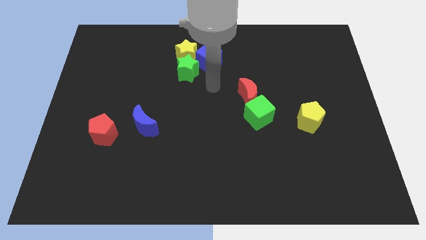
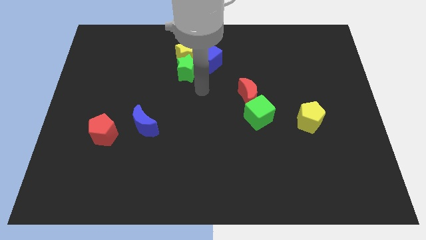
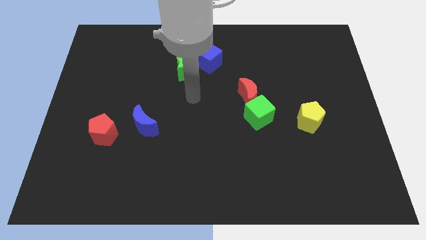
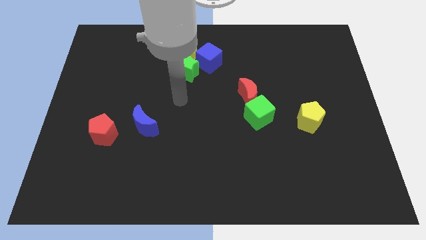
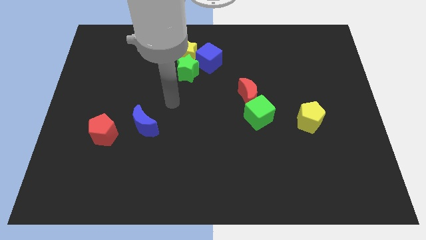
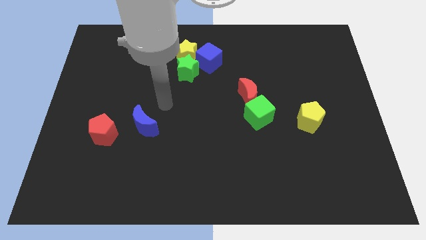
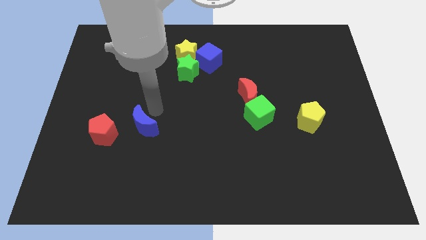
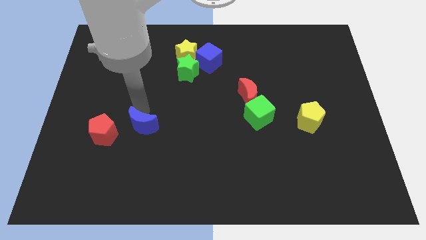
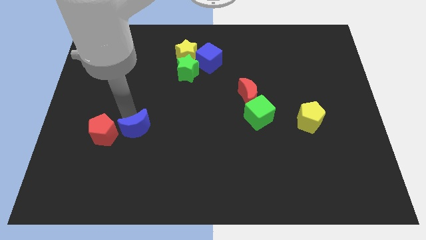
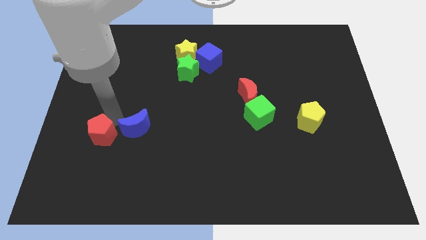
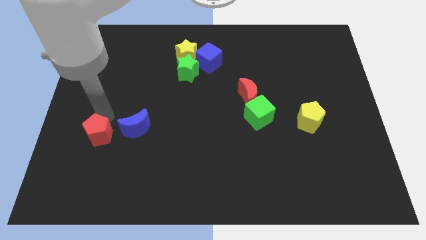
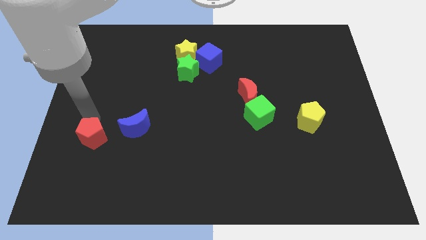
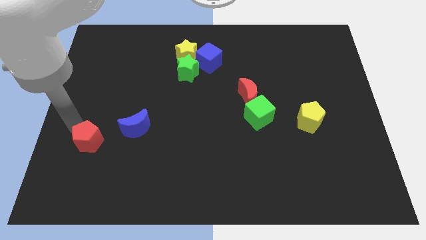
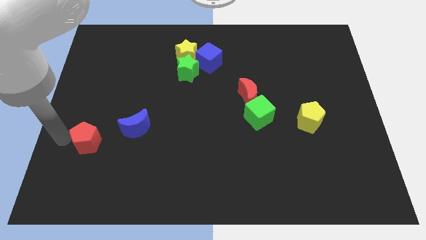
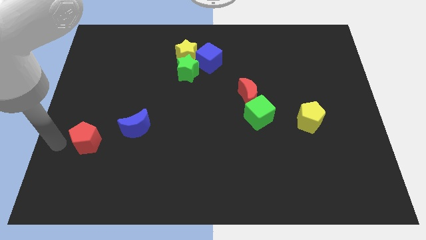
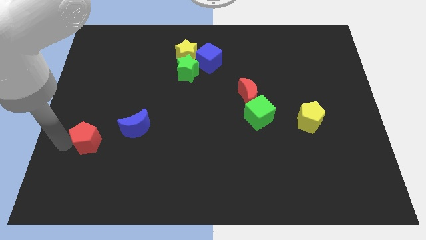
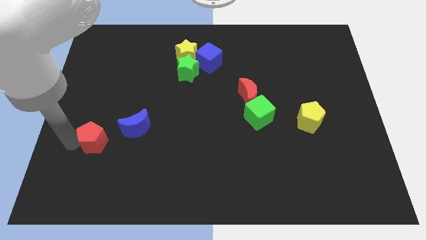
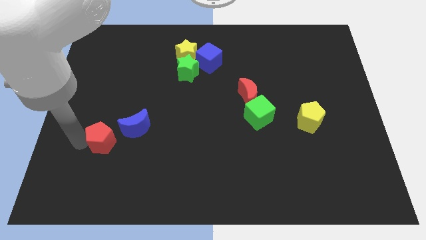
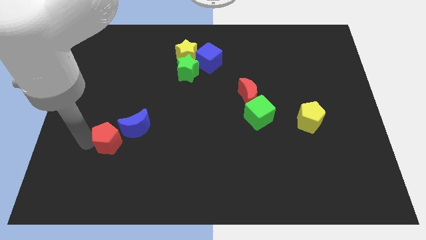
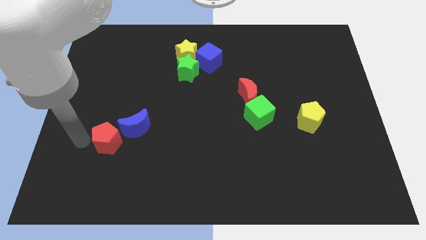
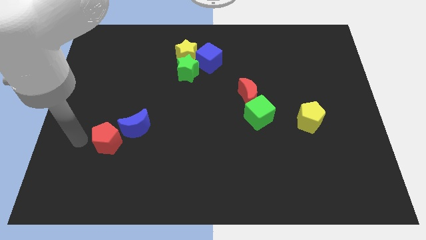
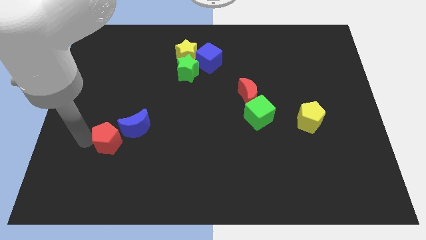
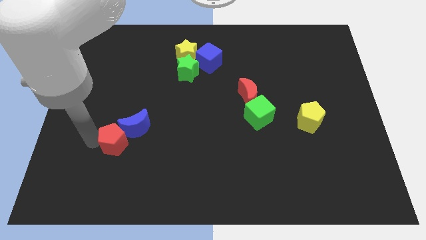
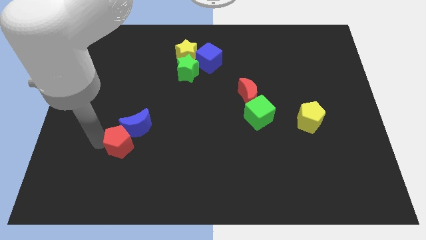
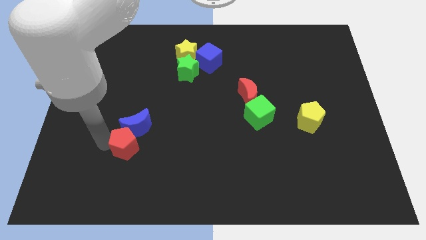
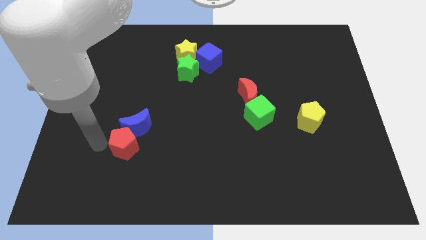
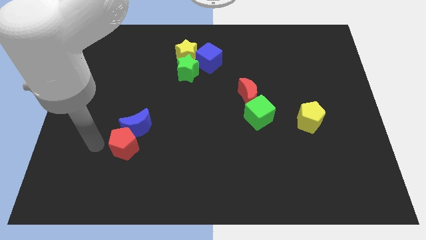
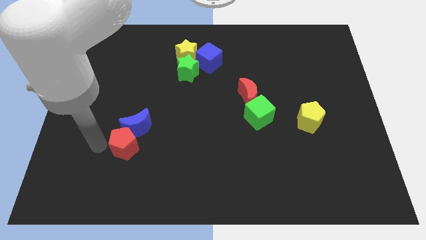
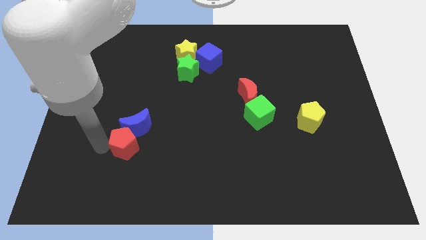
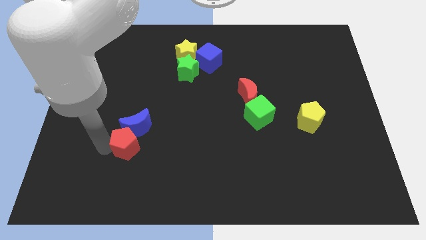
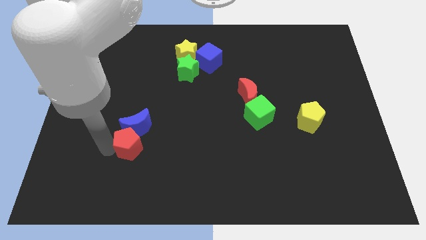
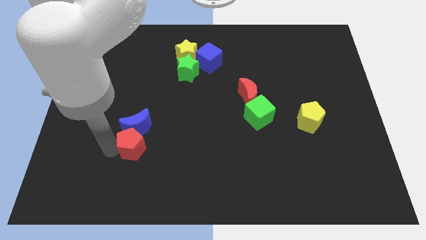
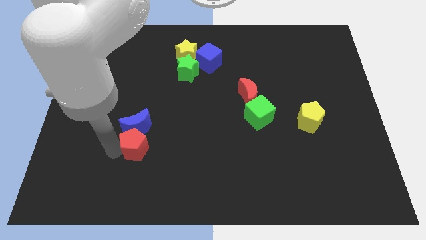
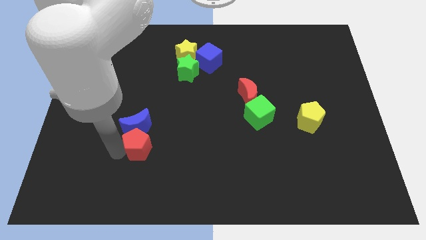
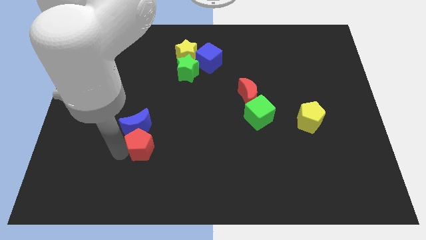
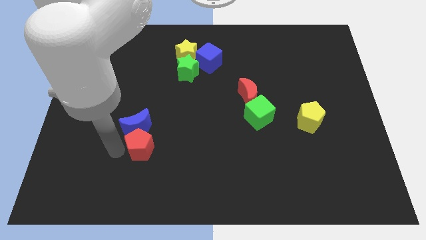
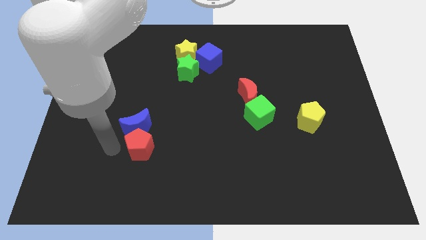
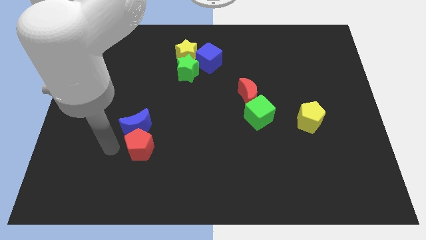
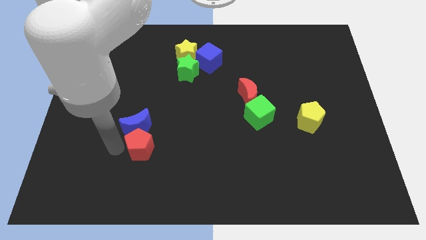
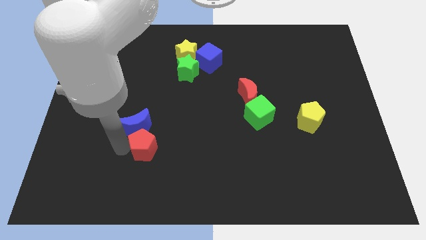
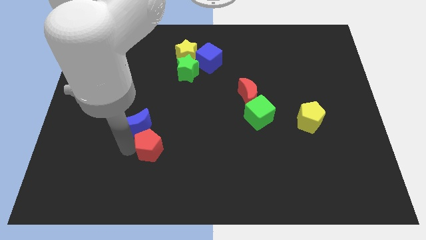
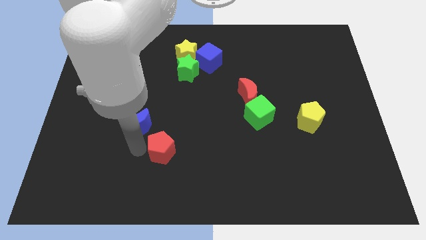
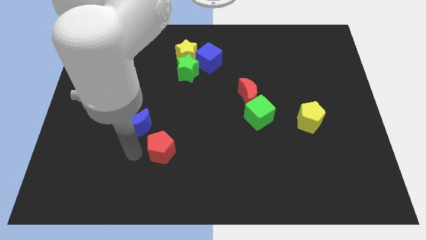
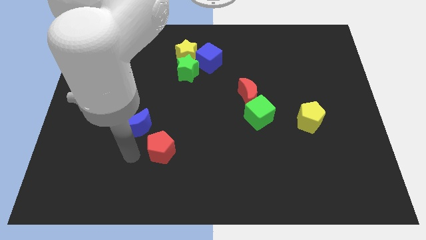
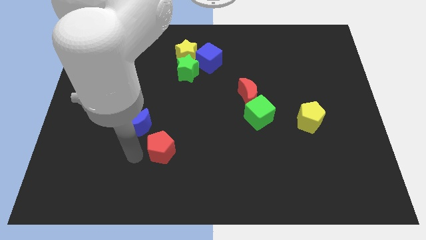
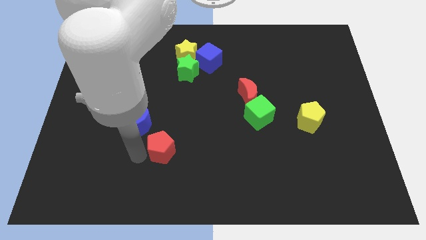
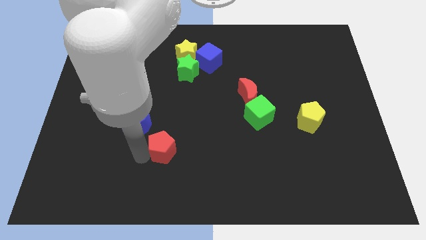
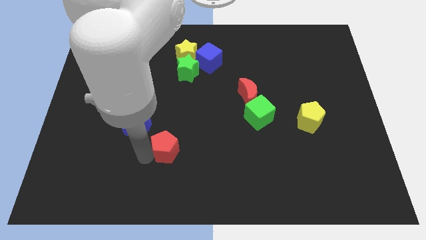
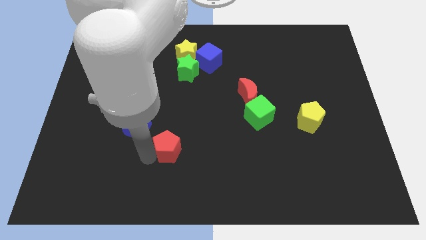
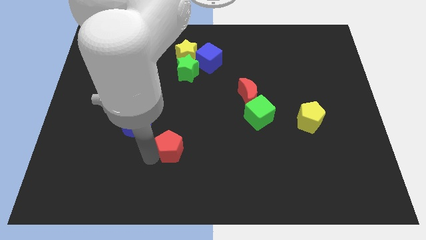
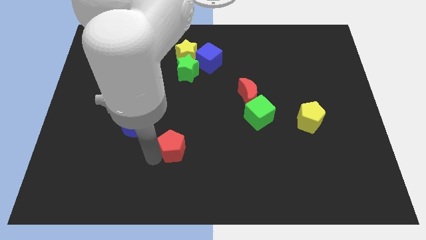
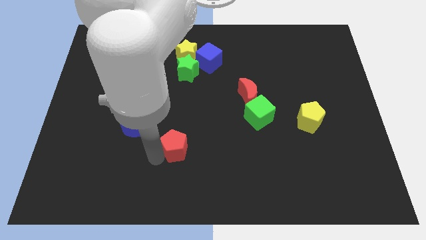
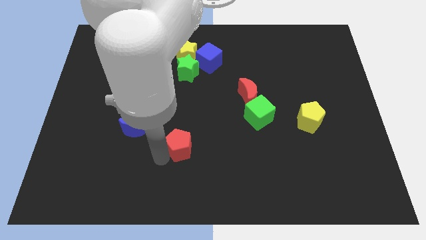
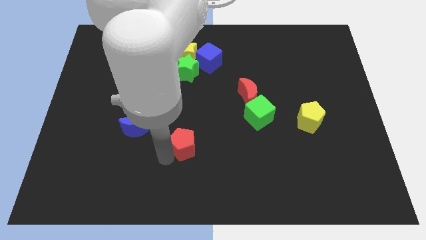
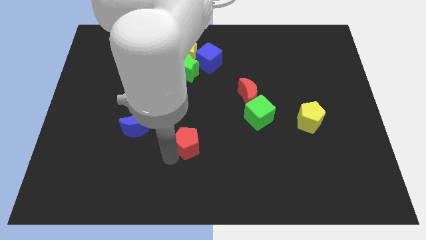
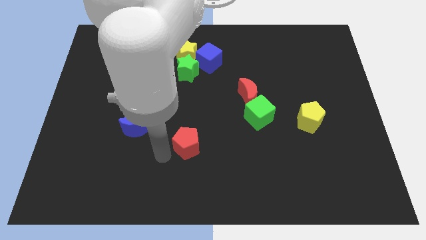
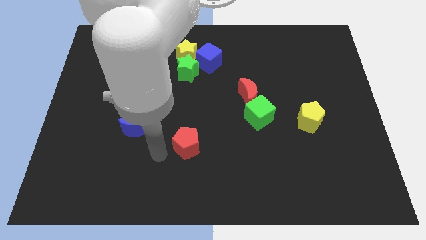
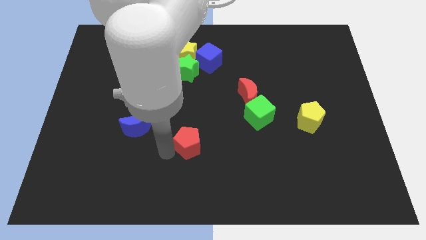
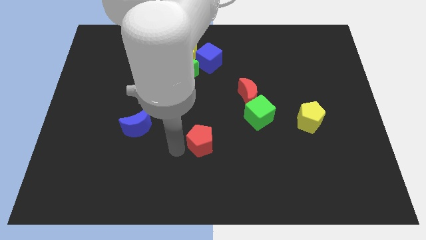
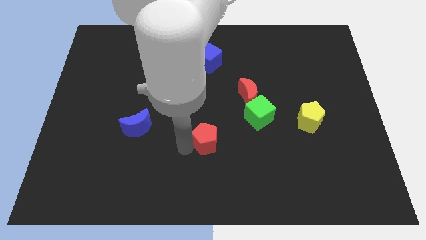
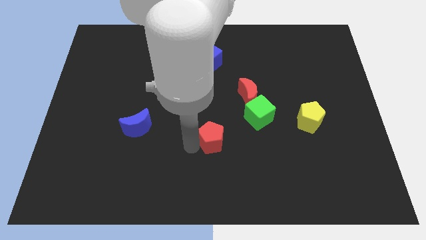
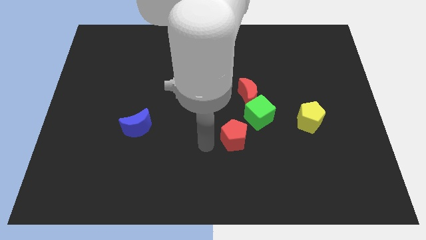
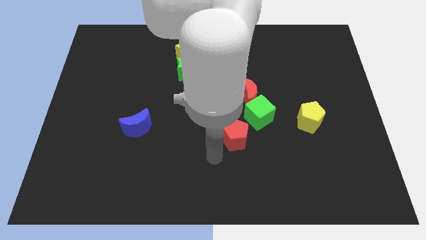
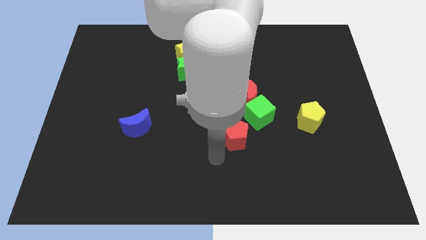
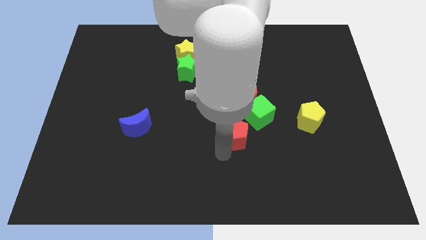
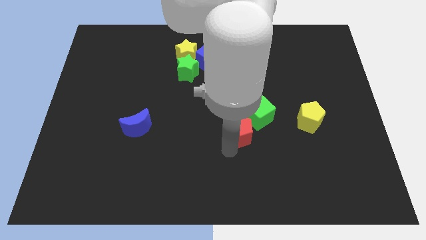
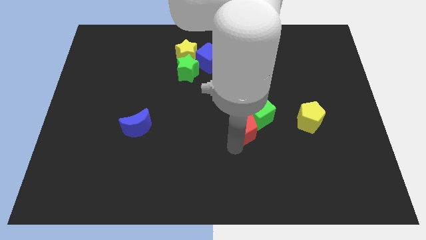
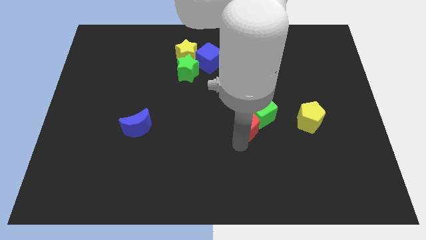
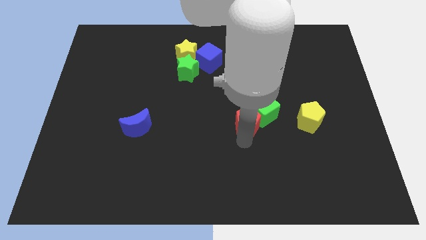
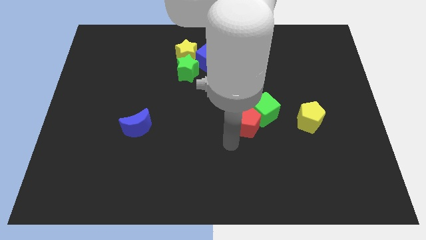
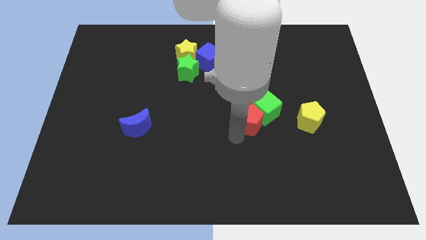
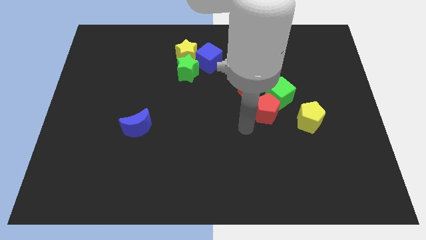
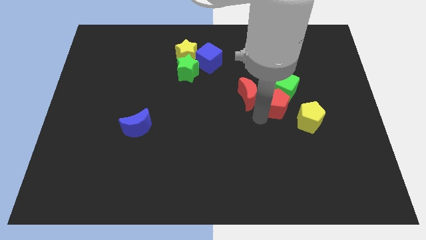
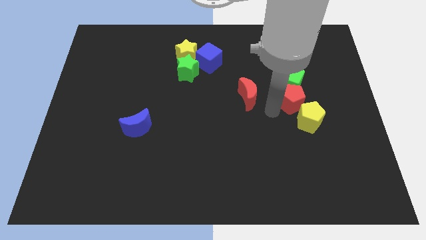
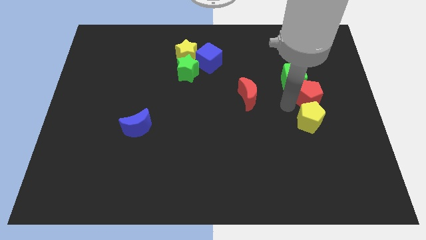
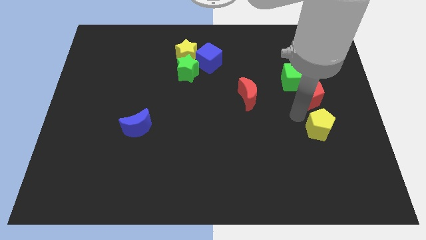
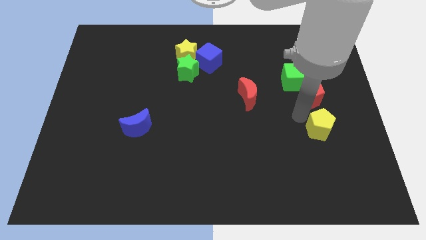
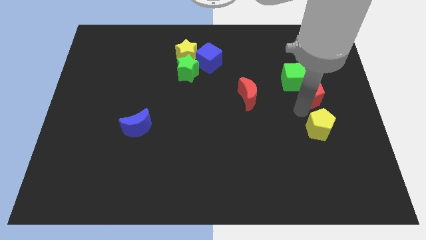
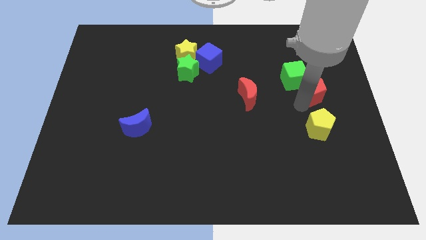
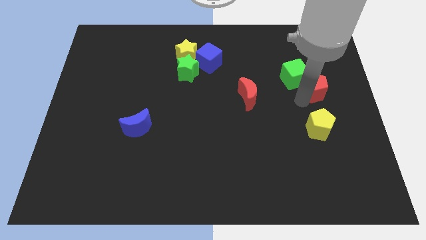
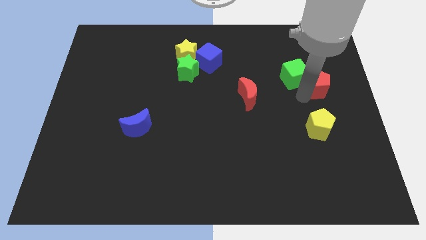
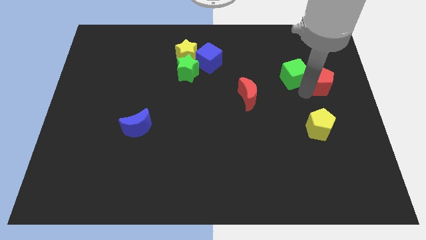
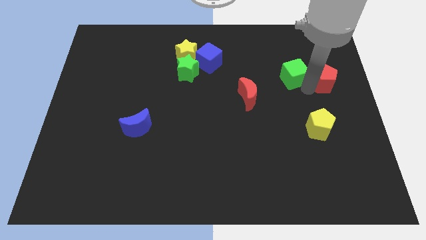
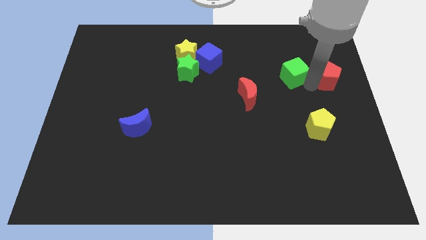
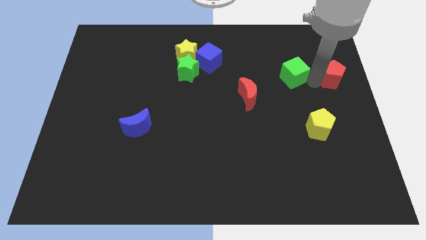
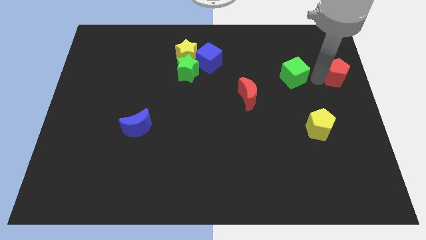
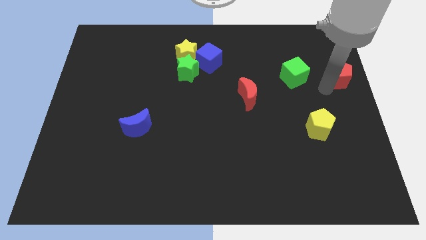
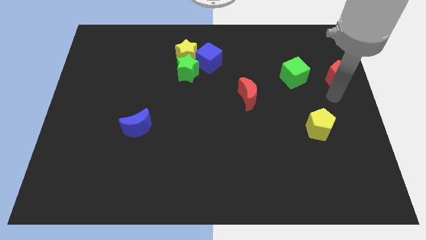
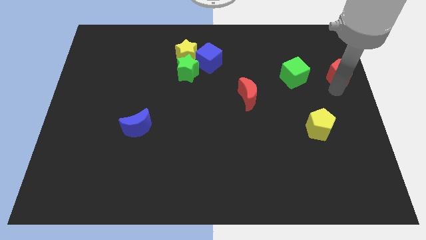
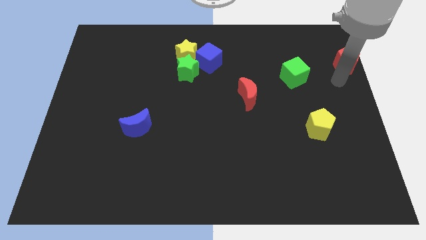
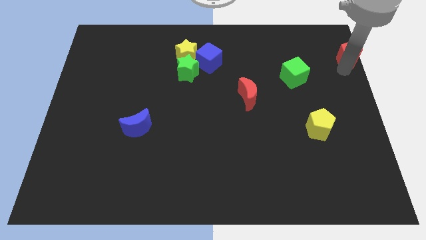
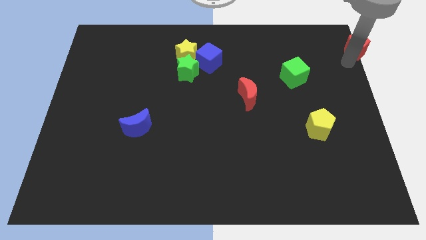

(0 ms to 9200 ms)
put the red pentagon to the top right of the board
